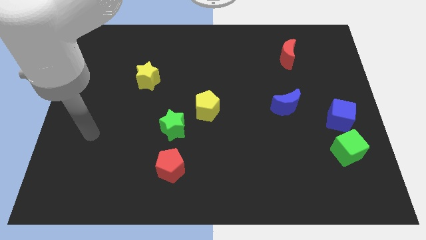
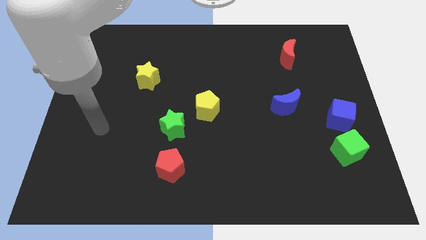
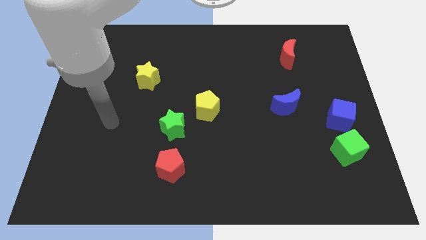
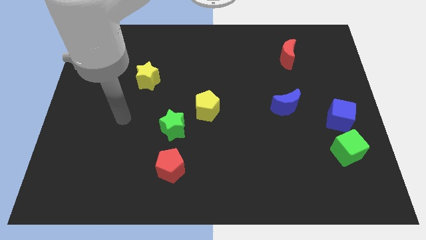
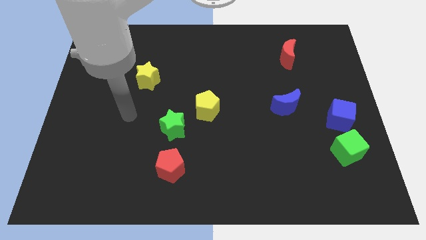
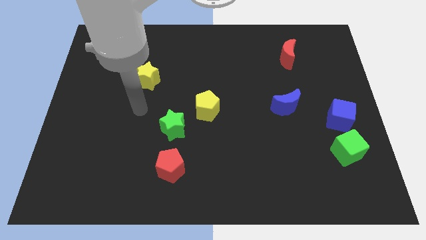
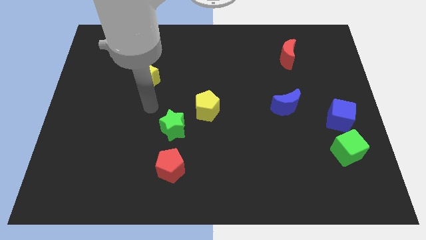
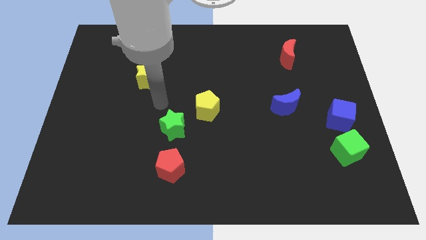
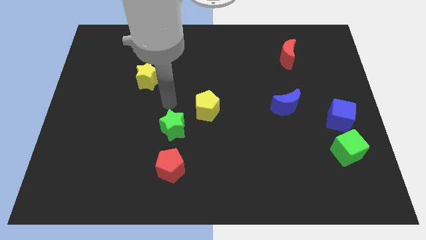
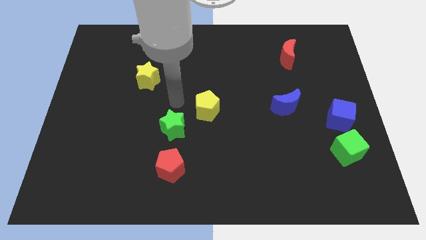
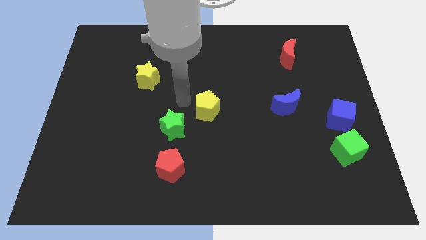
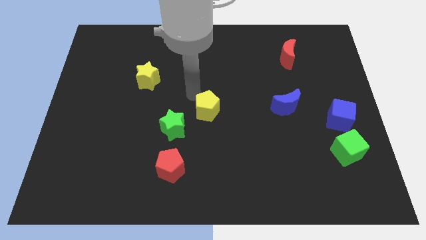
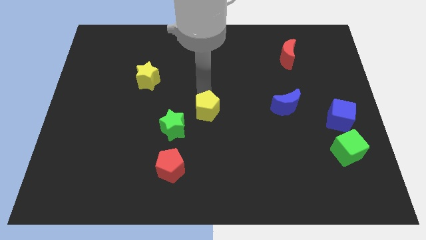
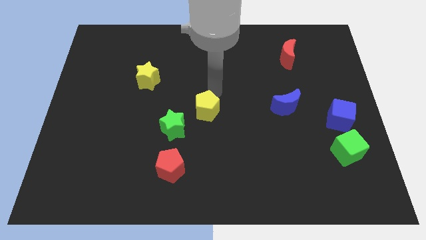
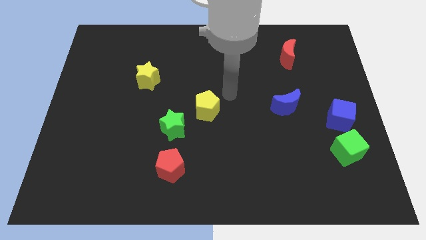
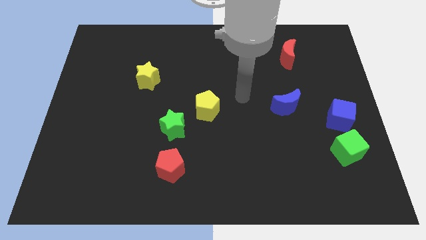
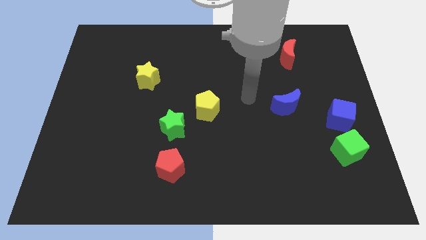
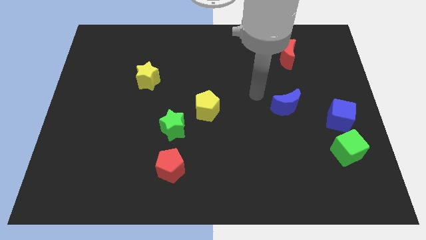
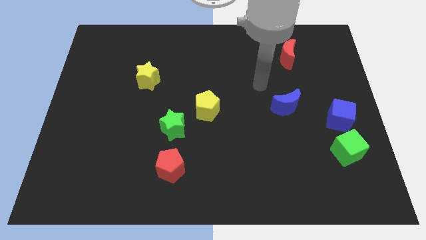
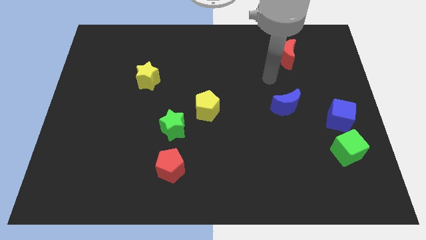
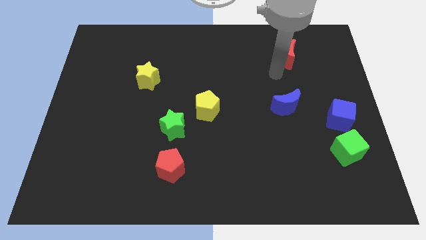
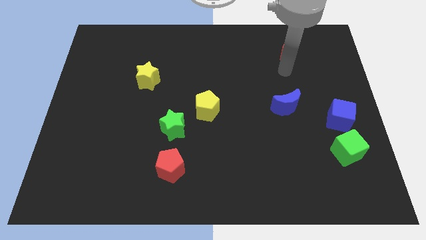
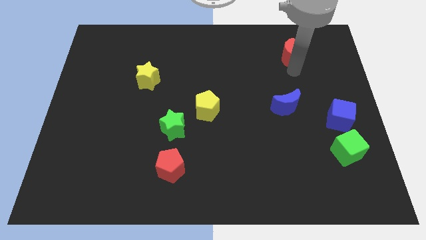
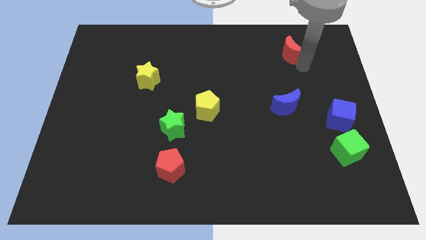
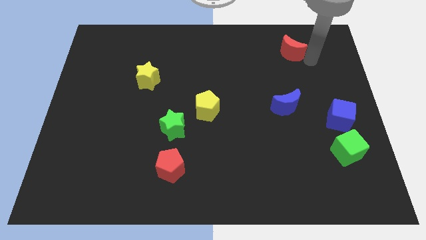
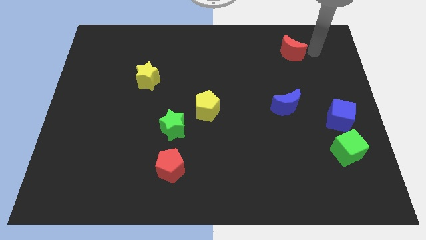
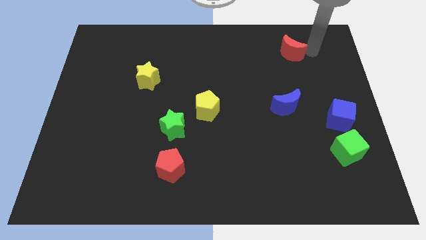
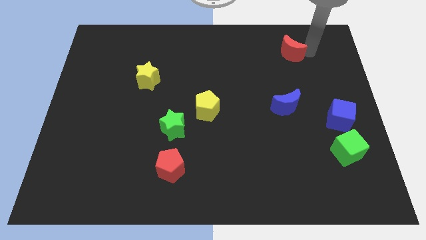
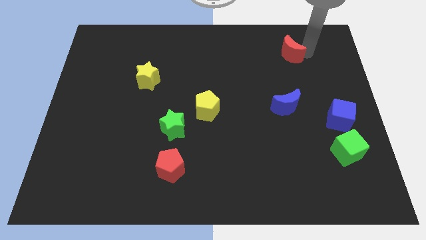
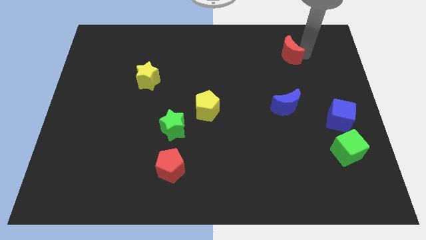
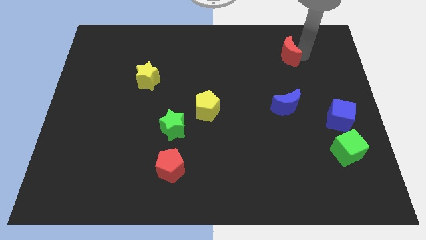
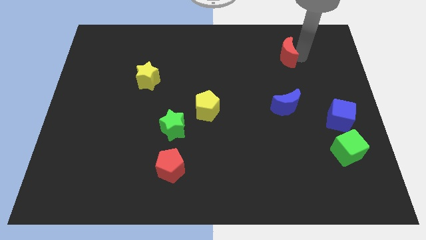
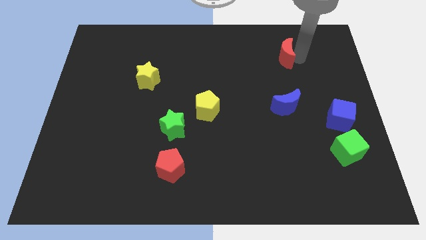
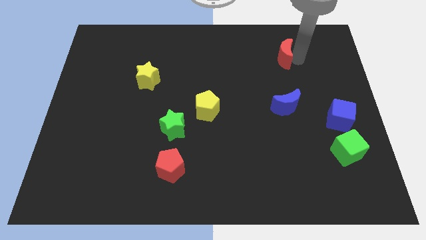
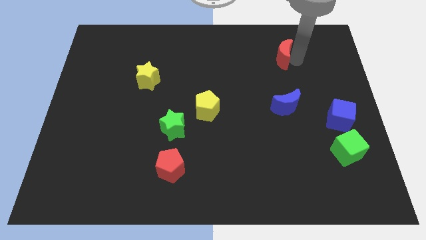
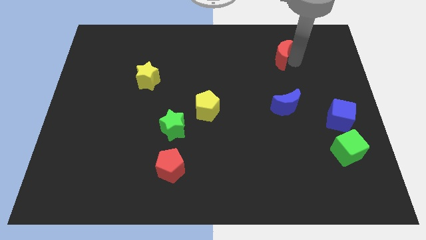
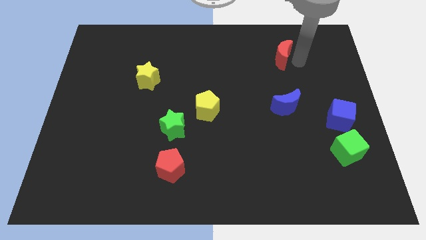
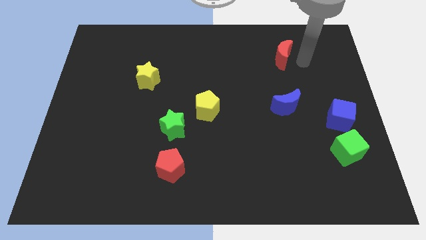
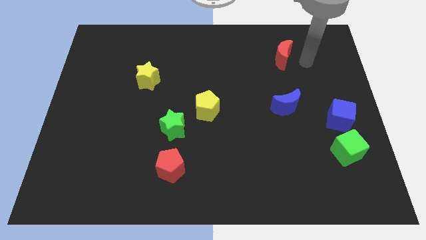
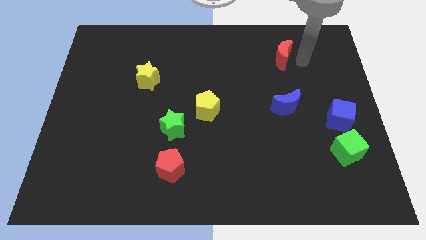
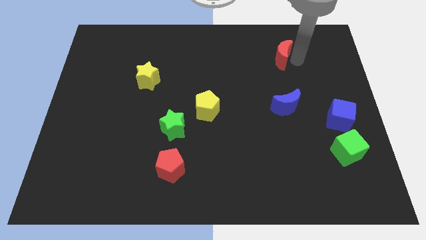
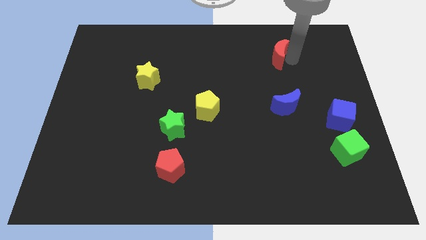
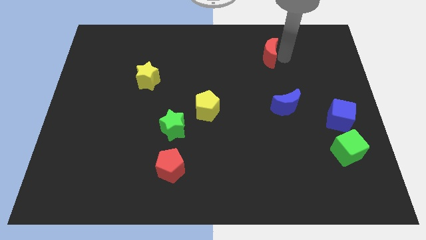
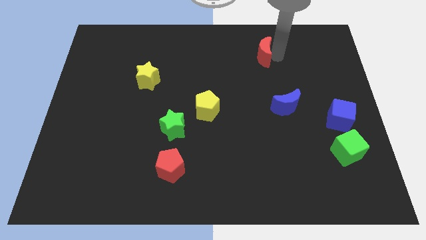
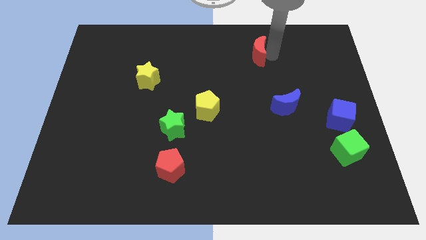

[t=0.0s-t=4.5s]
move the red moon a little left

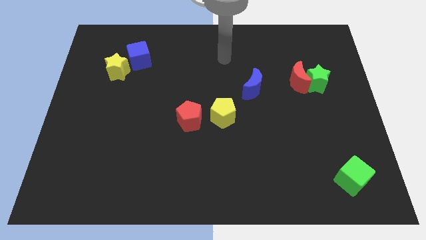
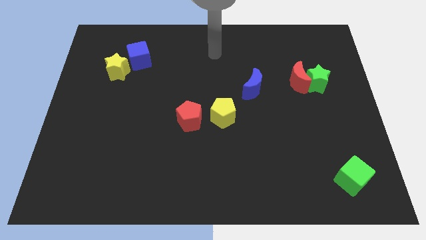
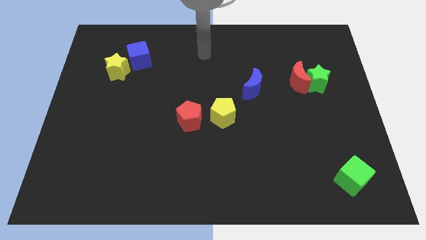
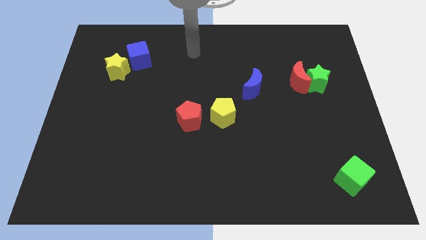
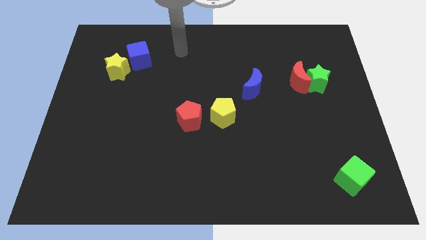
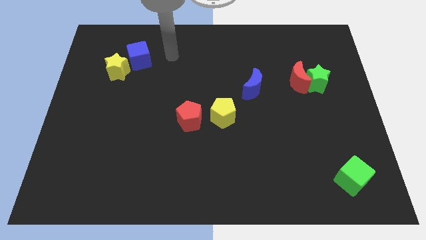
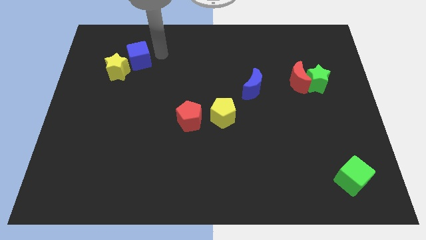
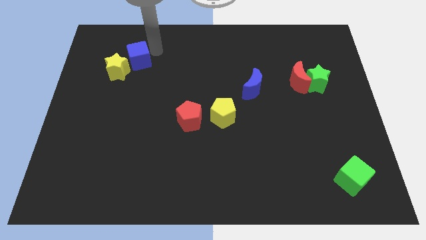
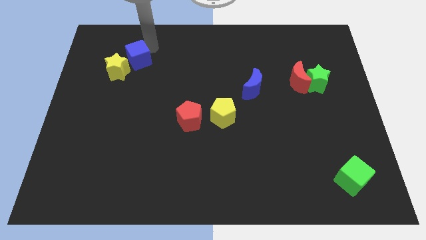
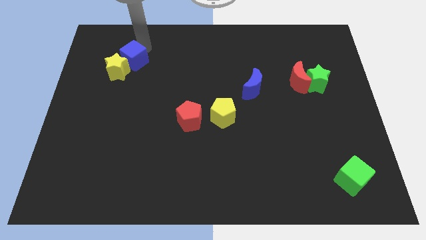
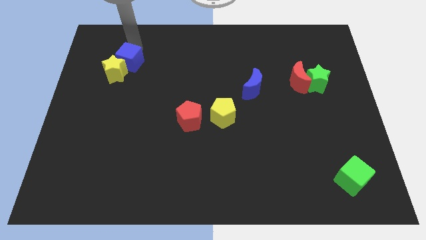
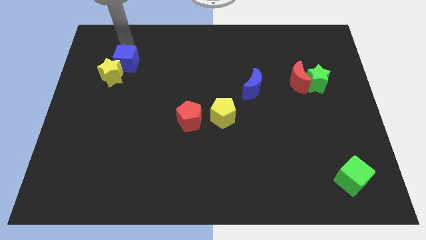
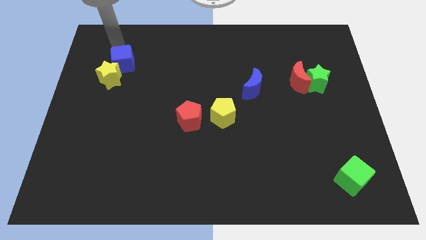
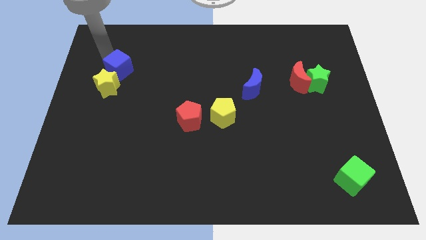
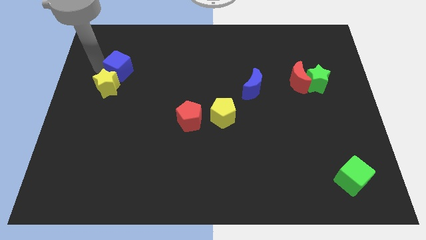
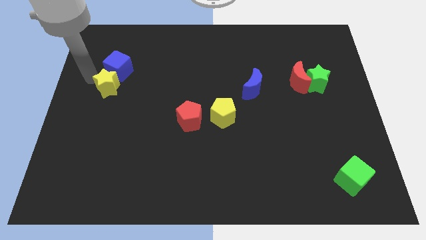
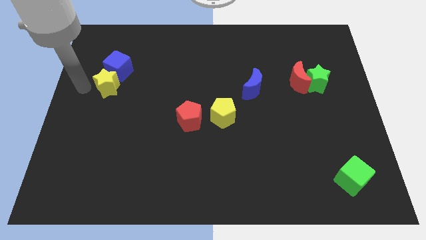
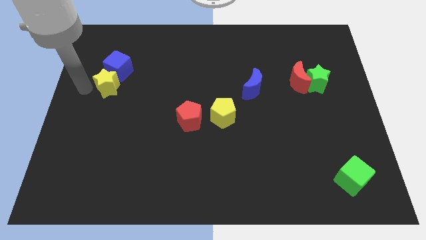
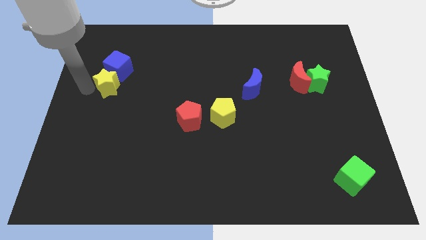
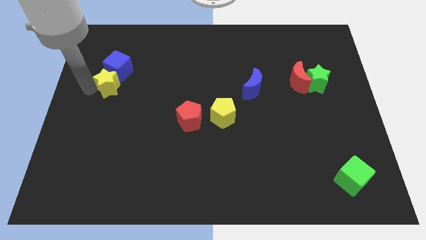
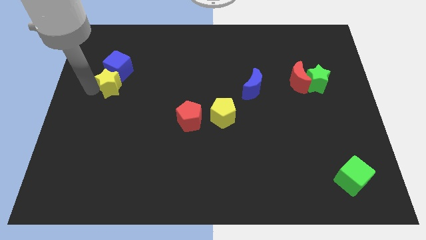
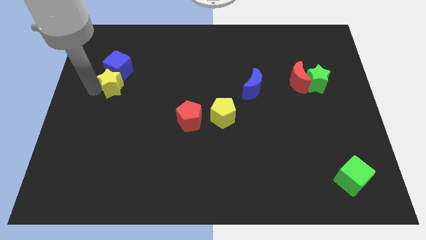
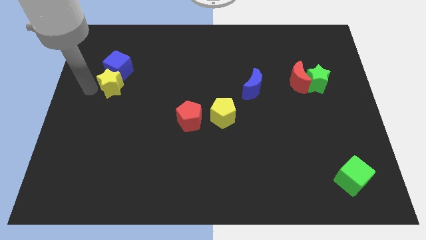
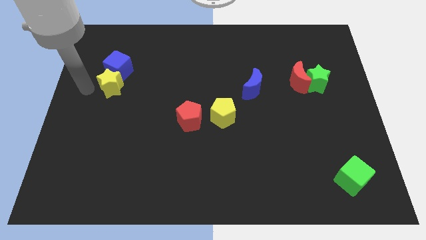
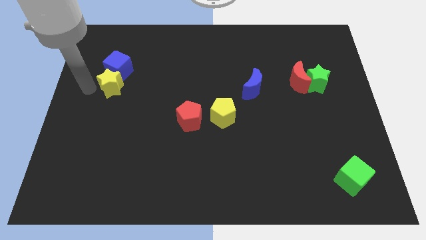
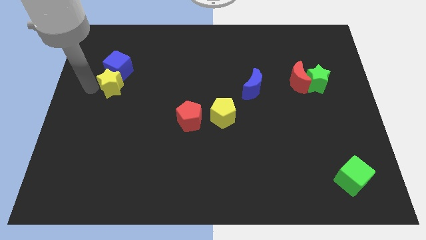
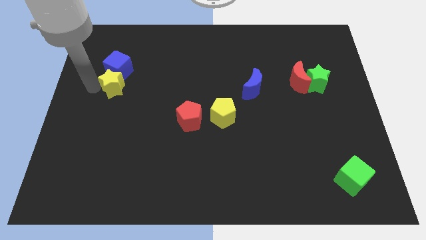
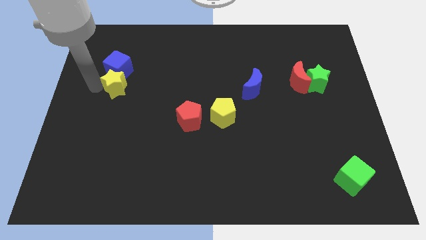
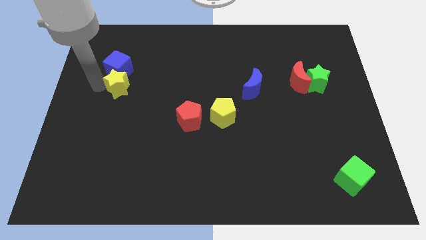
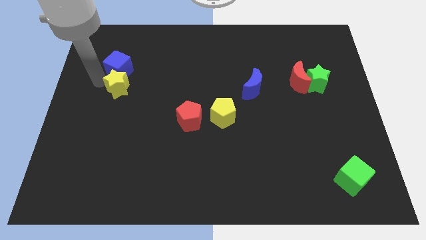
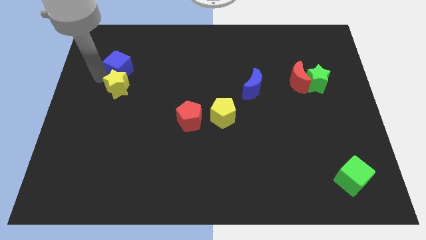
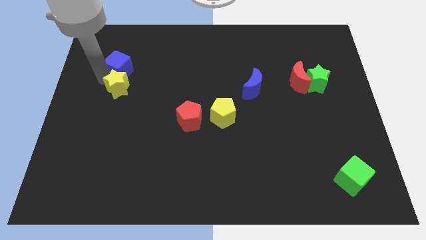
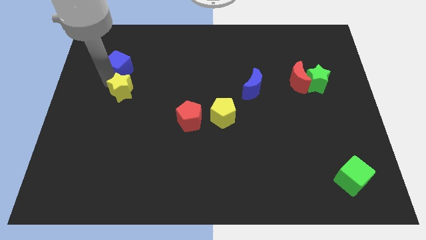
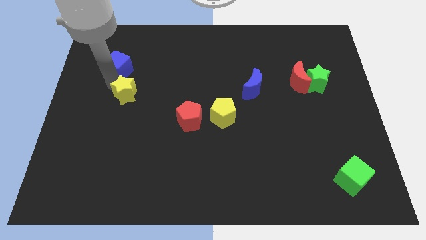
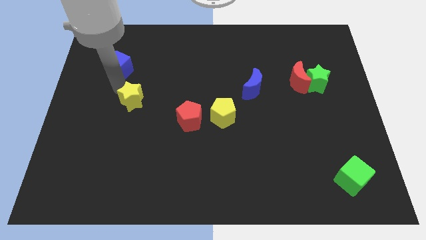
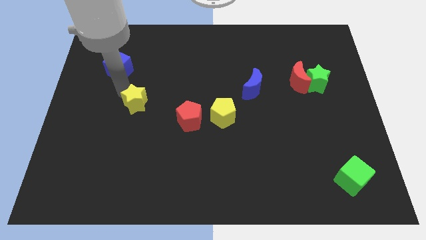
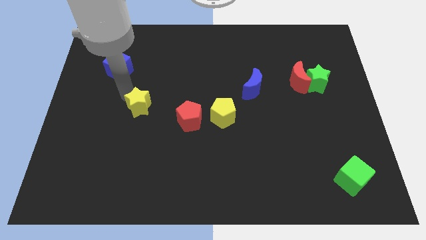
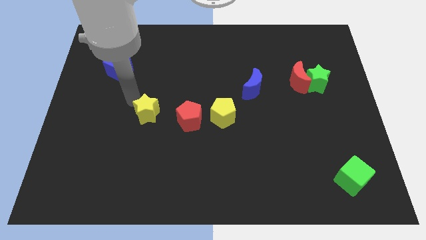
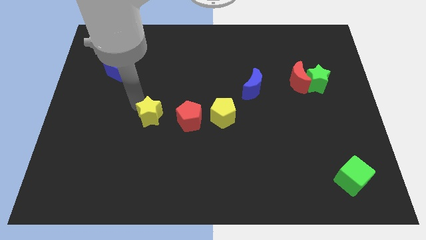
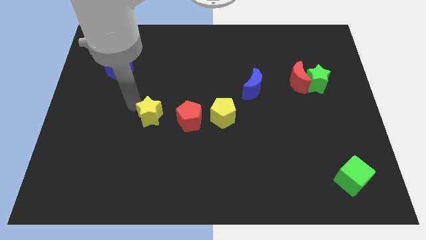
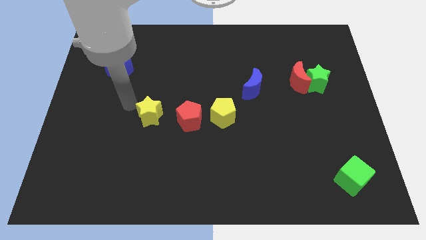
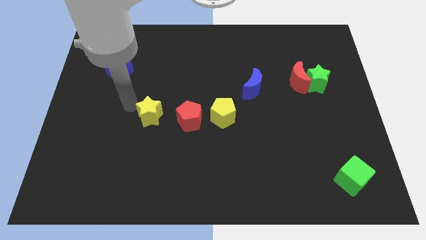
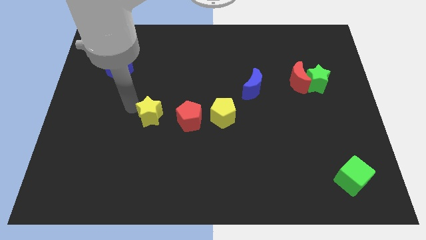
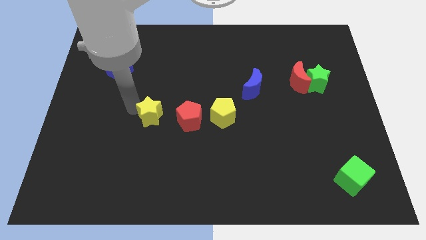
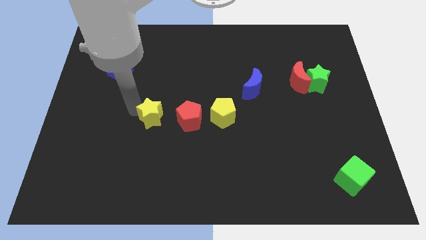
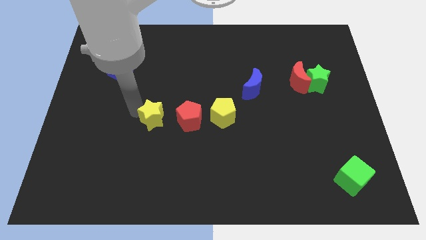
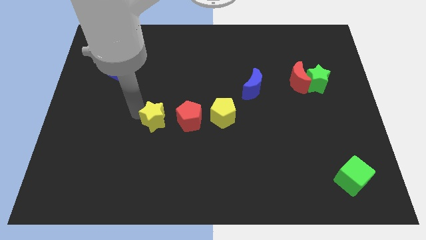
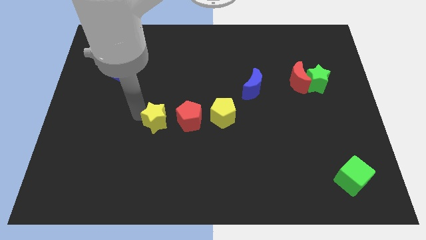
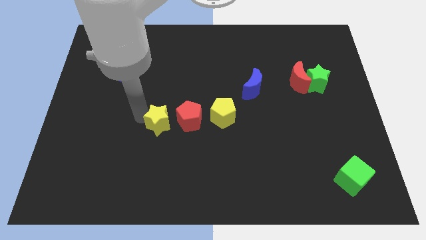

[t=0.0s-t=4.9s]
push the yellow star downwards and to the right diagonally
